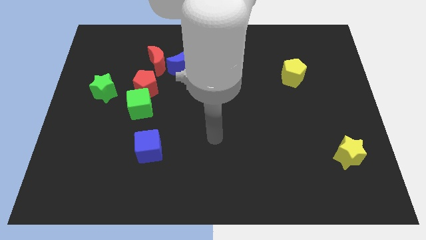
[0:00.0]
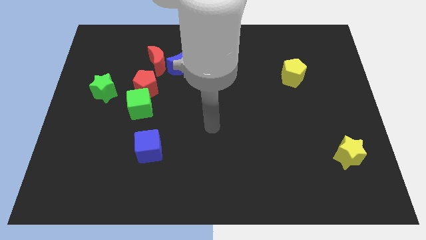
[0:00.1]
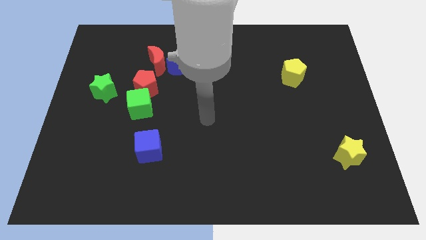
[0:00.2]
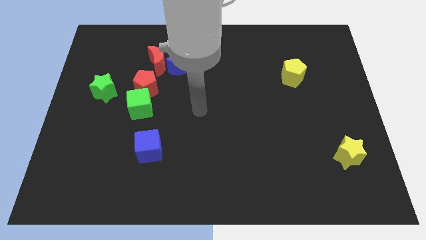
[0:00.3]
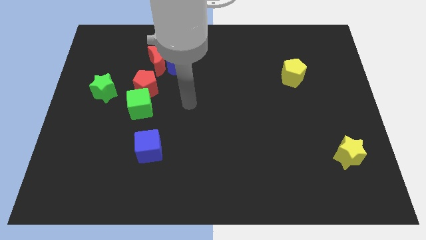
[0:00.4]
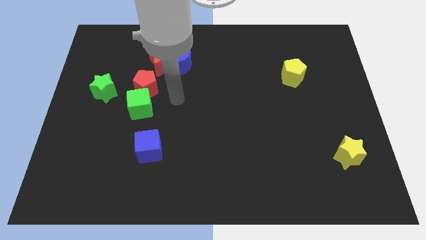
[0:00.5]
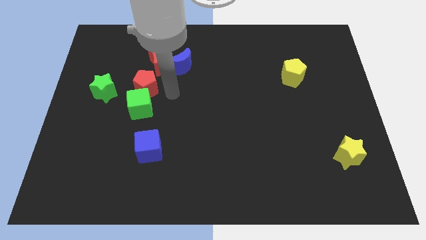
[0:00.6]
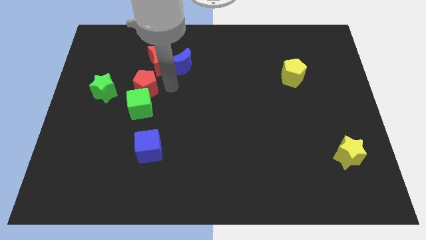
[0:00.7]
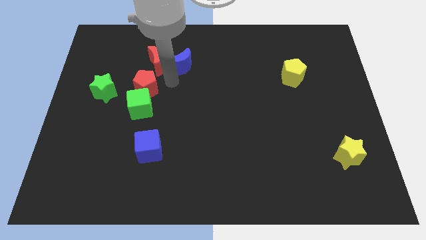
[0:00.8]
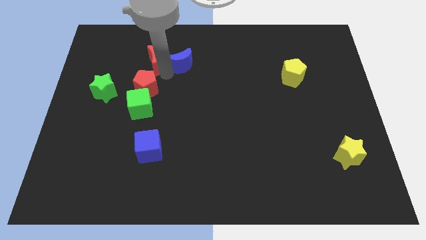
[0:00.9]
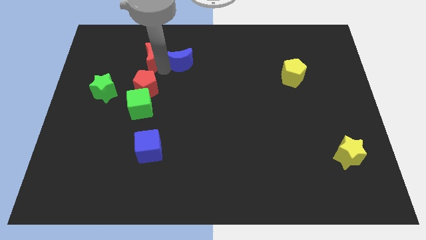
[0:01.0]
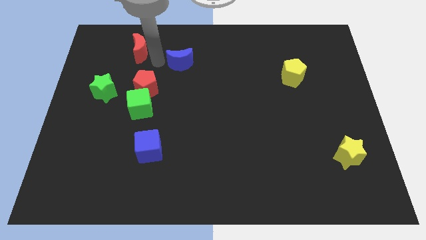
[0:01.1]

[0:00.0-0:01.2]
separate the blue moon from the red moon

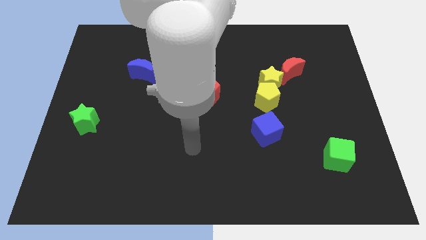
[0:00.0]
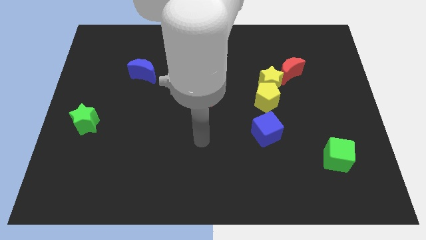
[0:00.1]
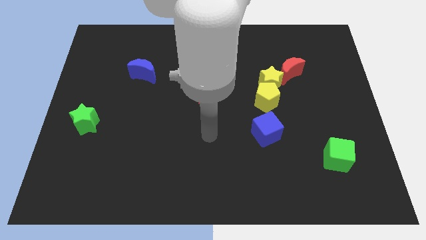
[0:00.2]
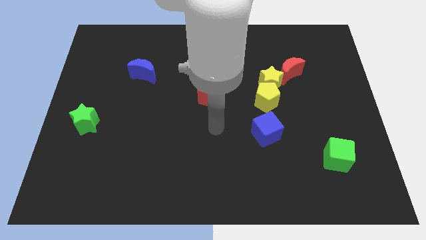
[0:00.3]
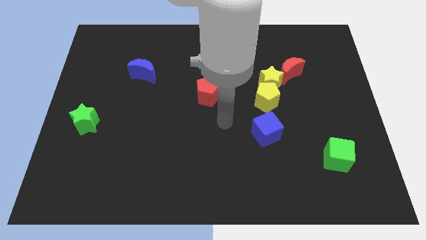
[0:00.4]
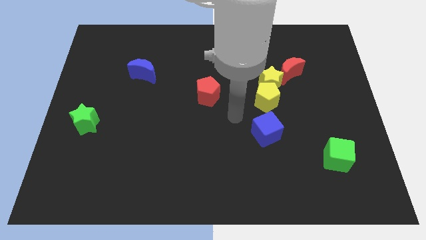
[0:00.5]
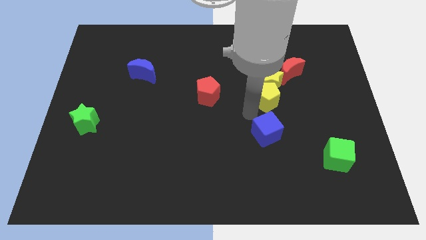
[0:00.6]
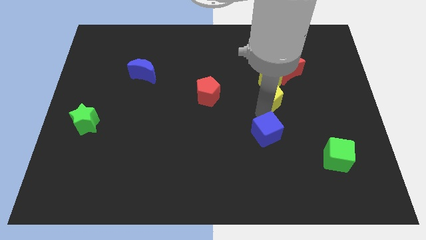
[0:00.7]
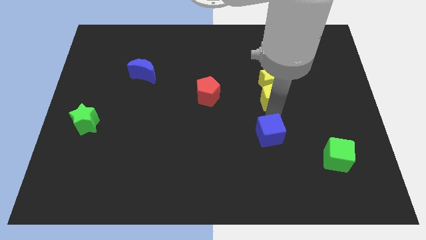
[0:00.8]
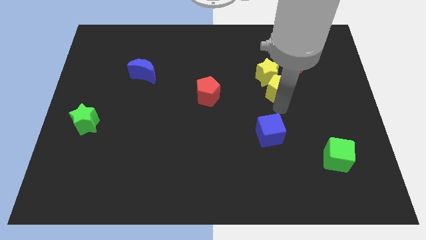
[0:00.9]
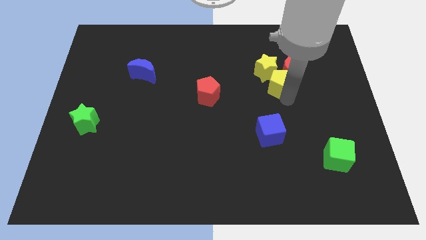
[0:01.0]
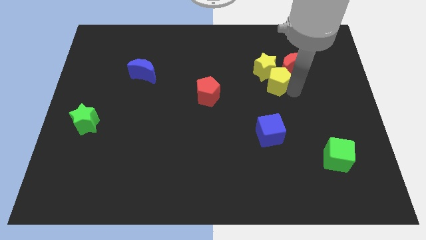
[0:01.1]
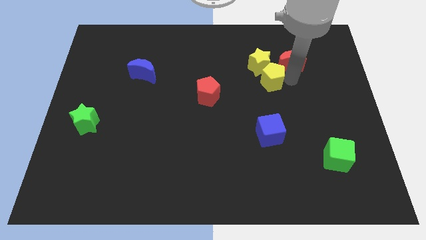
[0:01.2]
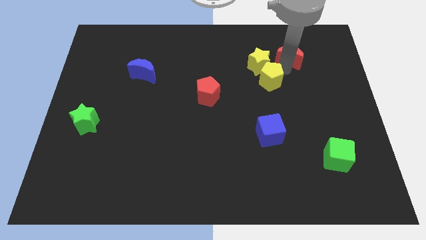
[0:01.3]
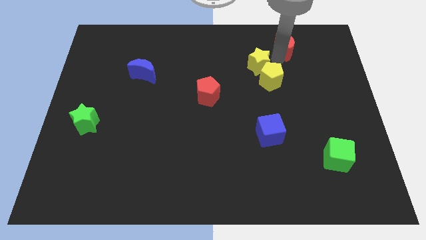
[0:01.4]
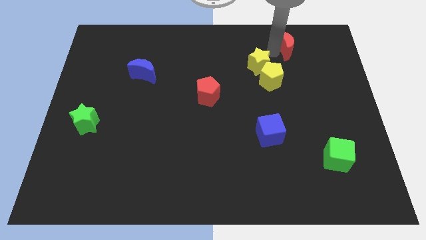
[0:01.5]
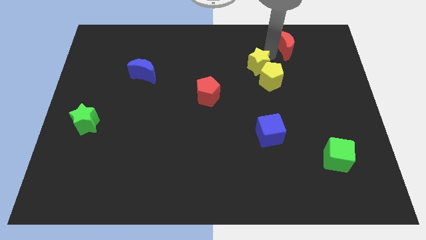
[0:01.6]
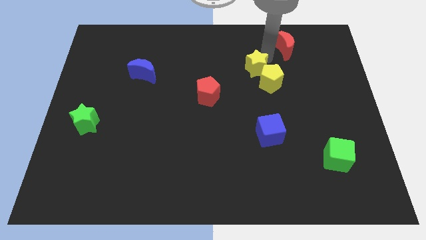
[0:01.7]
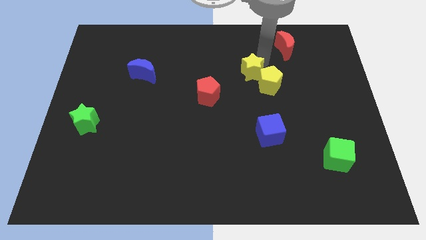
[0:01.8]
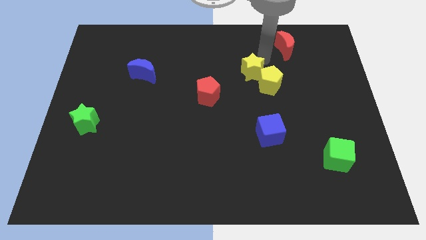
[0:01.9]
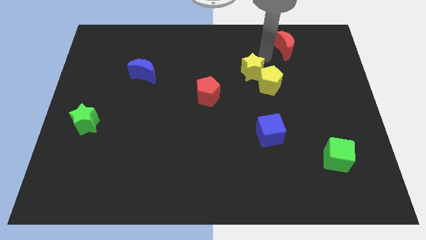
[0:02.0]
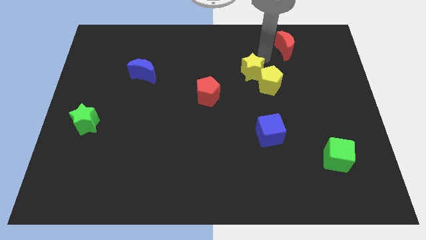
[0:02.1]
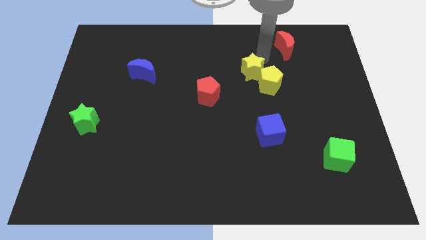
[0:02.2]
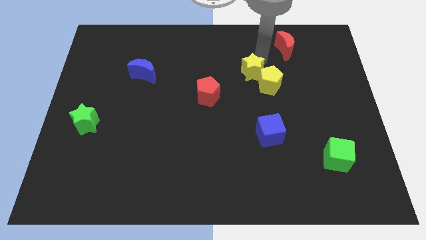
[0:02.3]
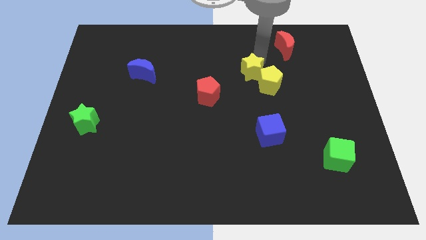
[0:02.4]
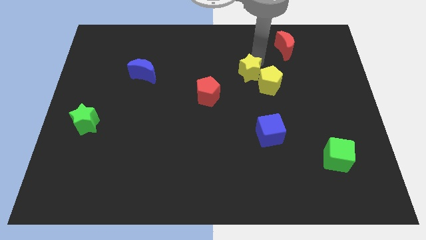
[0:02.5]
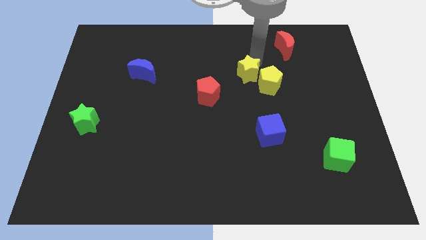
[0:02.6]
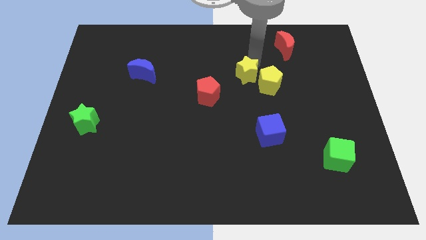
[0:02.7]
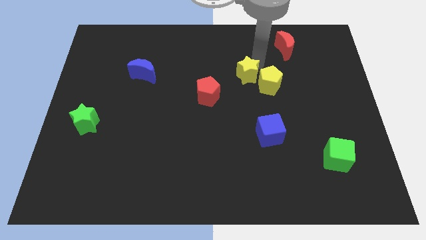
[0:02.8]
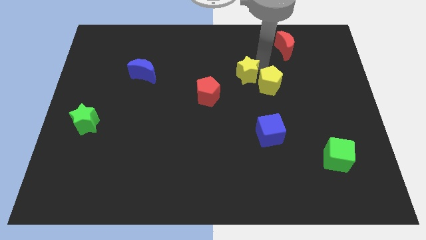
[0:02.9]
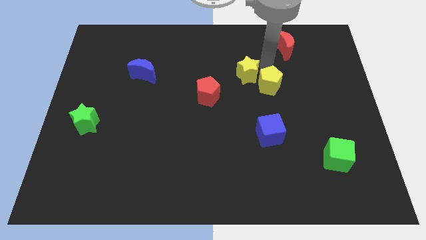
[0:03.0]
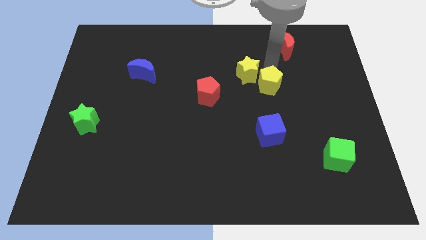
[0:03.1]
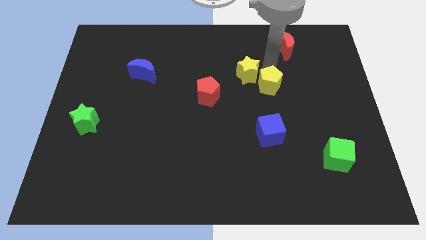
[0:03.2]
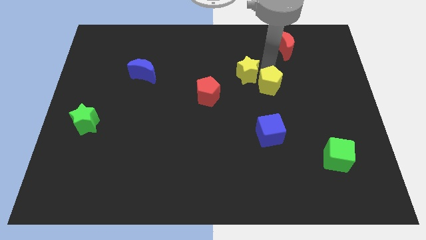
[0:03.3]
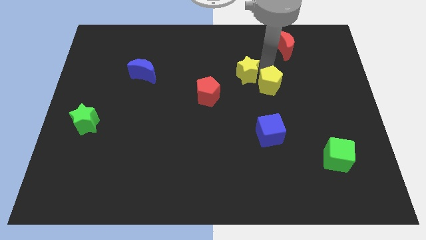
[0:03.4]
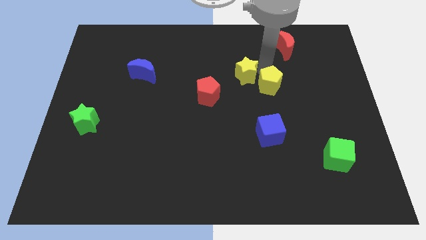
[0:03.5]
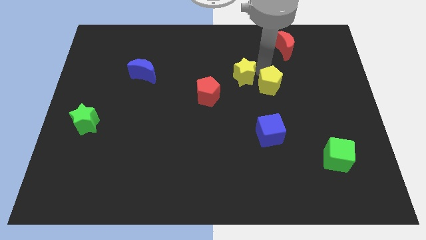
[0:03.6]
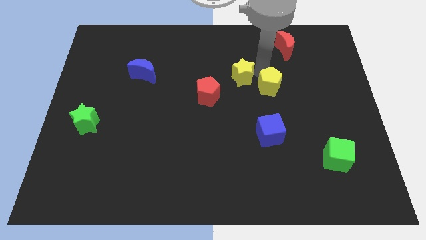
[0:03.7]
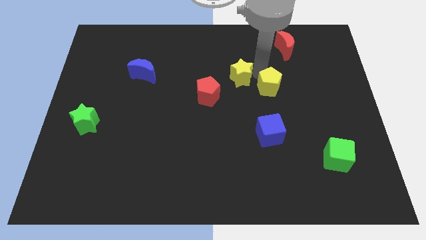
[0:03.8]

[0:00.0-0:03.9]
move the yellow star away from the yellow pentagon and red moon

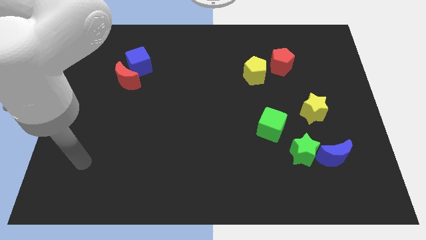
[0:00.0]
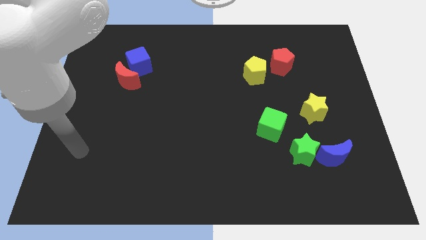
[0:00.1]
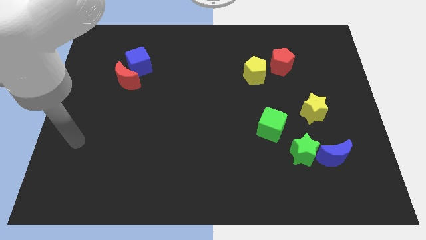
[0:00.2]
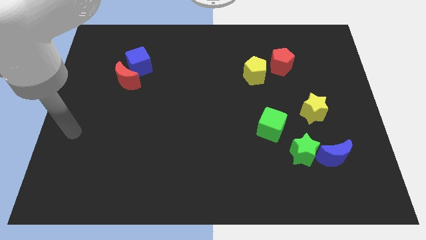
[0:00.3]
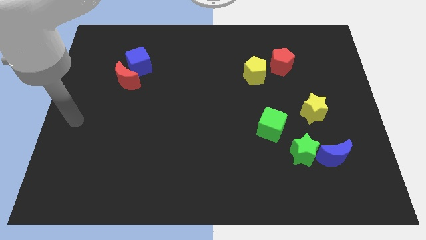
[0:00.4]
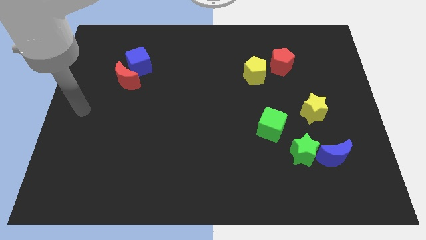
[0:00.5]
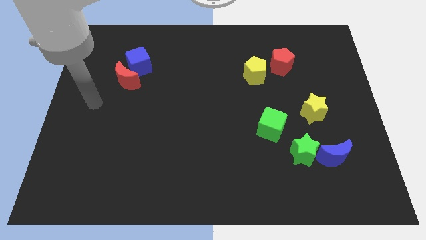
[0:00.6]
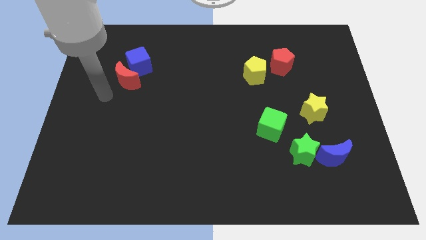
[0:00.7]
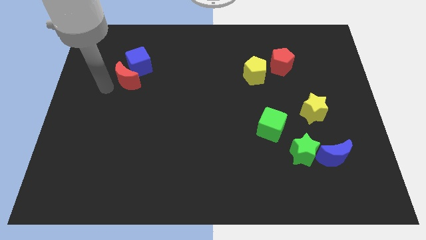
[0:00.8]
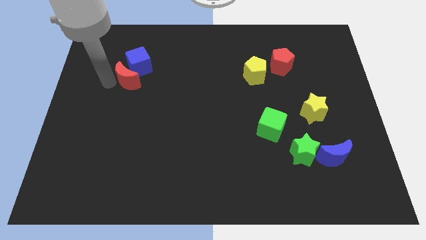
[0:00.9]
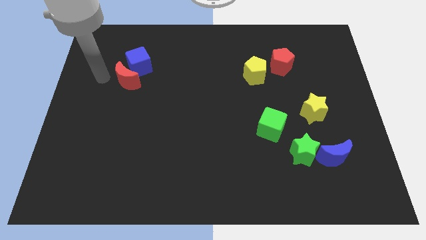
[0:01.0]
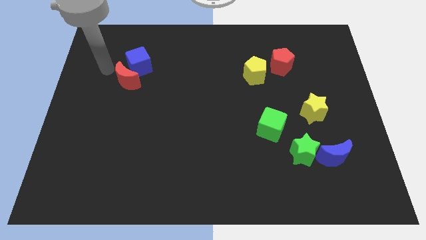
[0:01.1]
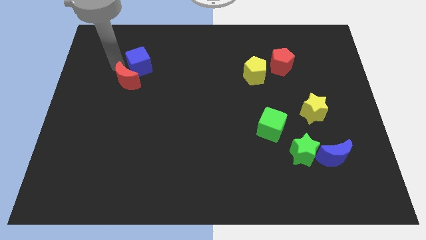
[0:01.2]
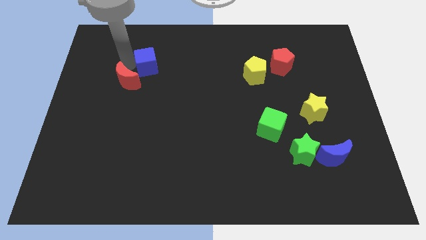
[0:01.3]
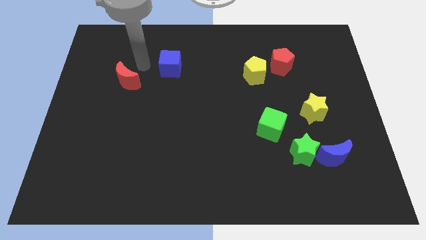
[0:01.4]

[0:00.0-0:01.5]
separate the red moon from the blue cube

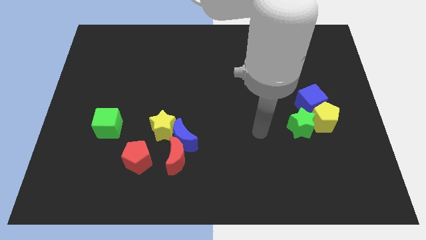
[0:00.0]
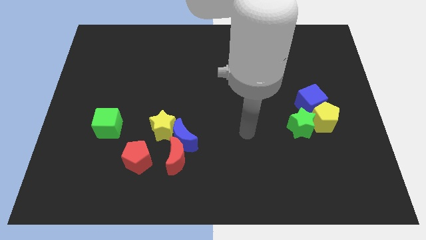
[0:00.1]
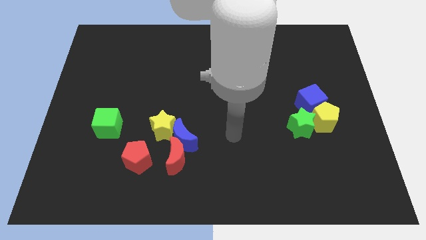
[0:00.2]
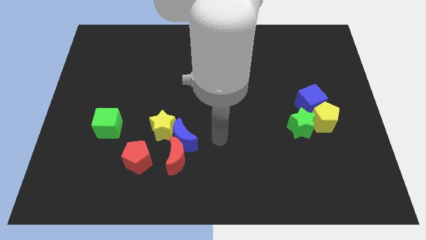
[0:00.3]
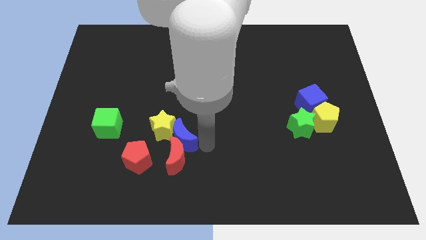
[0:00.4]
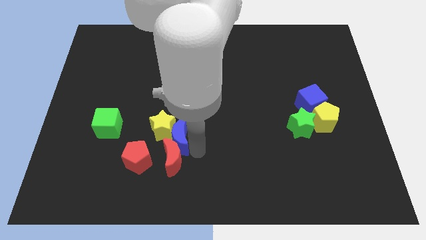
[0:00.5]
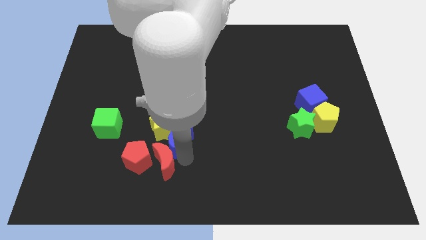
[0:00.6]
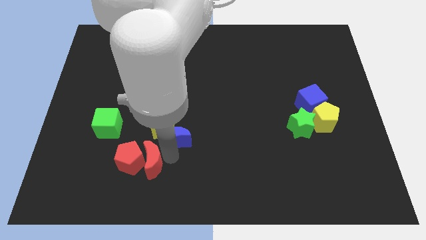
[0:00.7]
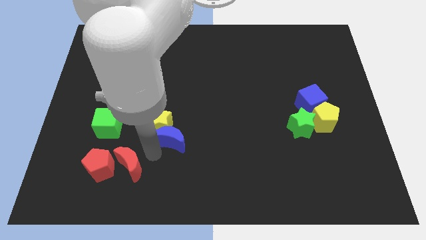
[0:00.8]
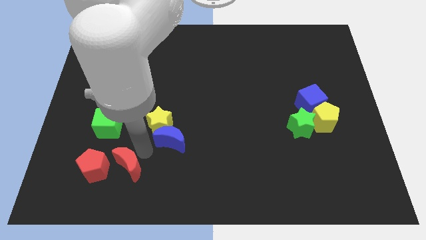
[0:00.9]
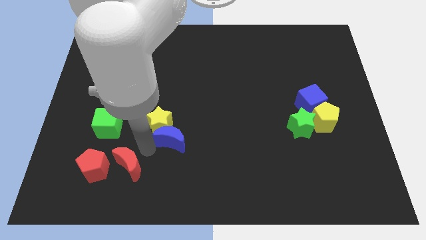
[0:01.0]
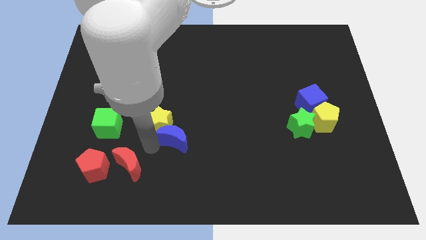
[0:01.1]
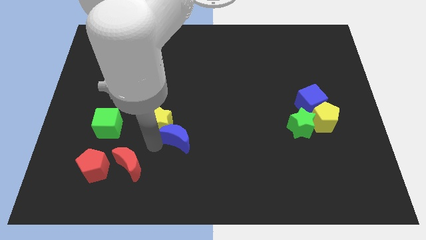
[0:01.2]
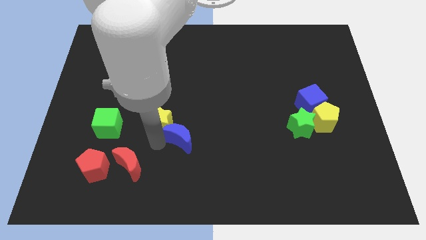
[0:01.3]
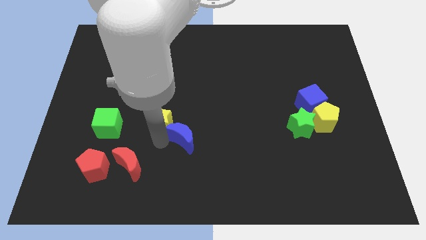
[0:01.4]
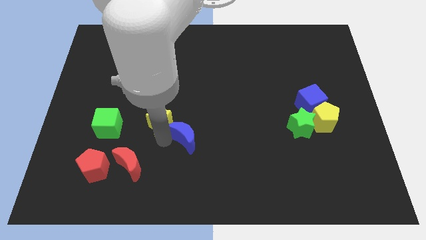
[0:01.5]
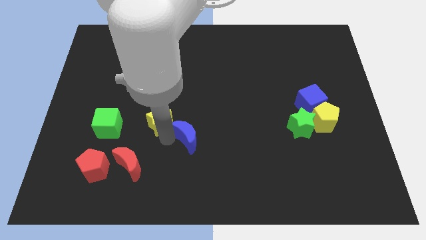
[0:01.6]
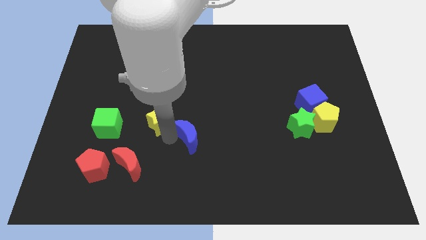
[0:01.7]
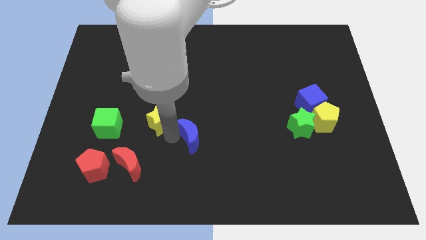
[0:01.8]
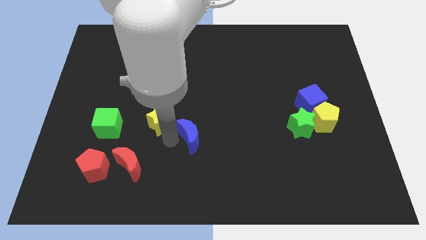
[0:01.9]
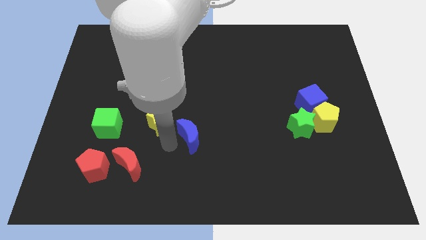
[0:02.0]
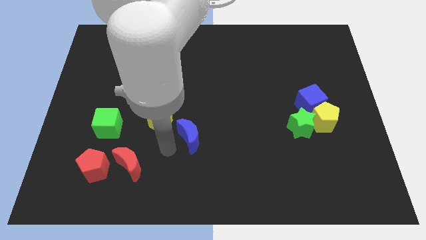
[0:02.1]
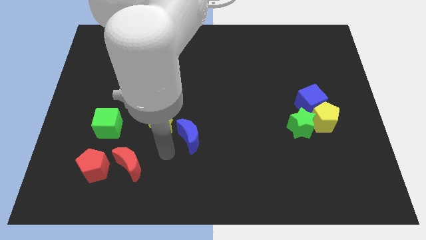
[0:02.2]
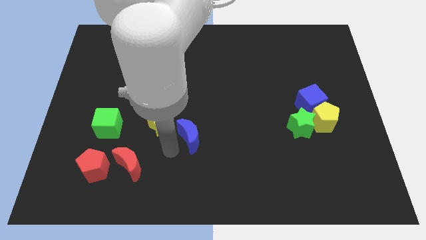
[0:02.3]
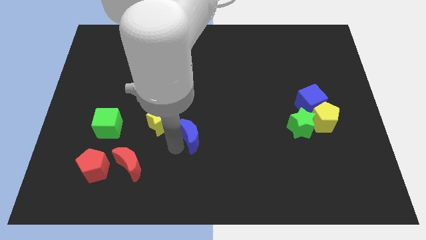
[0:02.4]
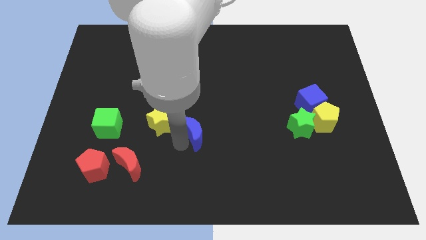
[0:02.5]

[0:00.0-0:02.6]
separate the blue moon from the red moon and yellow star

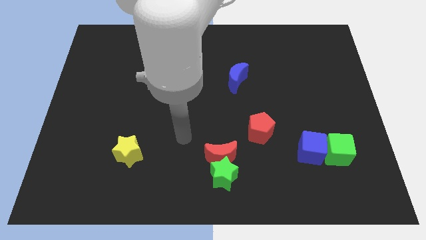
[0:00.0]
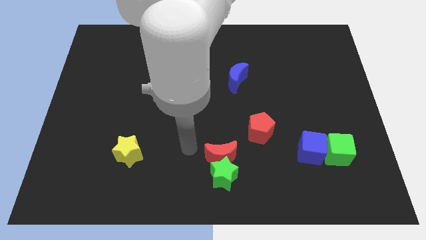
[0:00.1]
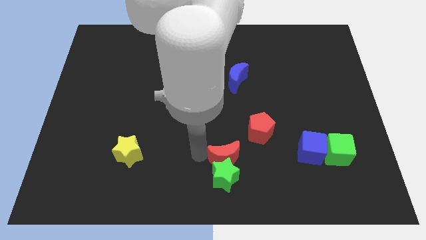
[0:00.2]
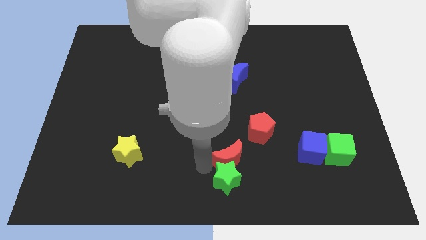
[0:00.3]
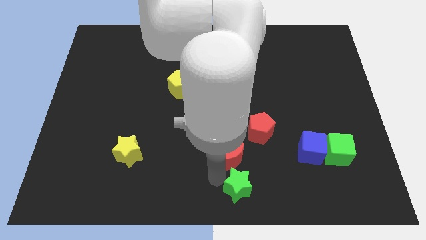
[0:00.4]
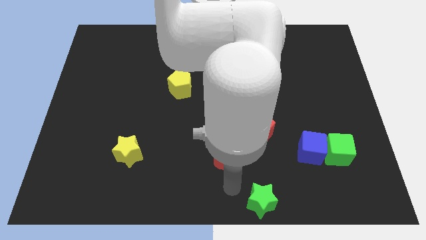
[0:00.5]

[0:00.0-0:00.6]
move the red moon away from the green star
